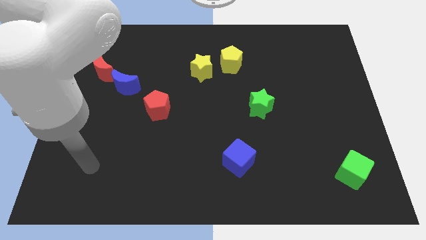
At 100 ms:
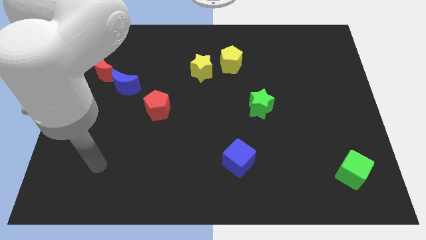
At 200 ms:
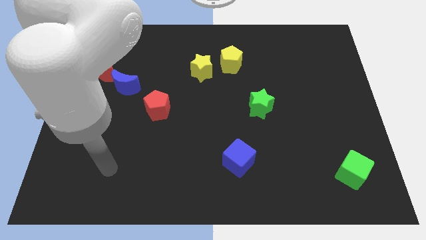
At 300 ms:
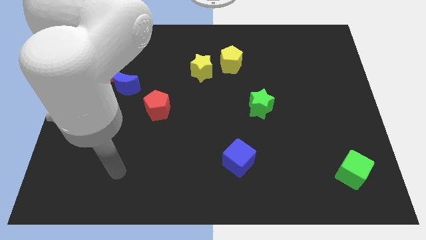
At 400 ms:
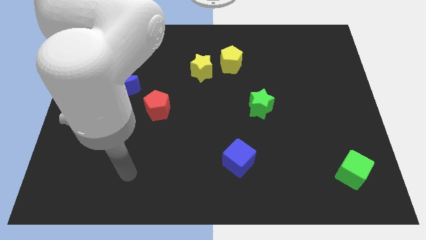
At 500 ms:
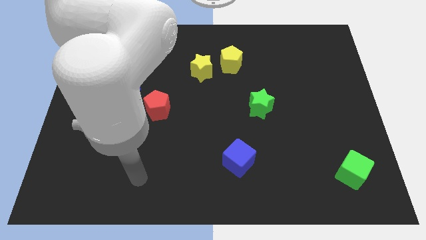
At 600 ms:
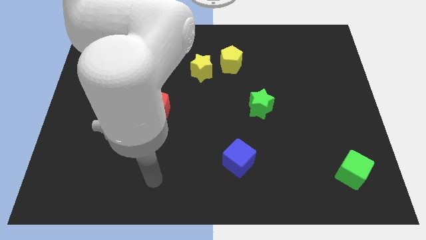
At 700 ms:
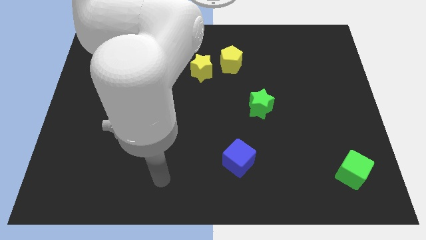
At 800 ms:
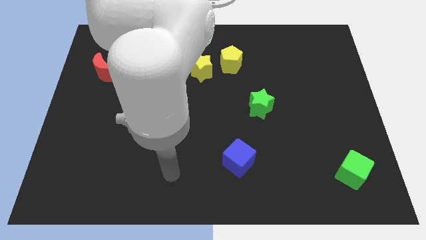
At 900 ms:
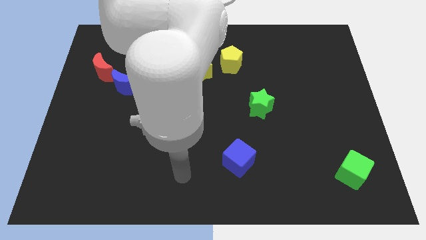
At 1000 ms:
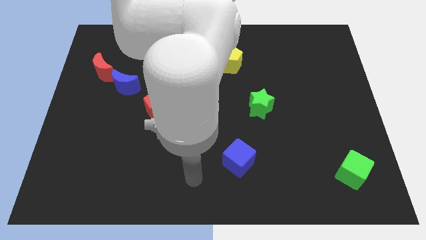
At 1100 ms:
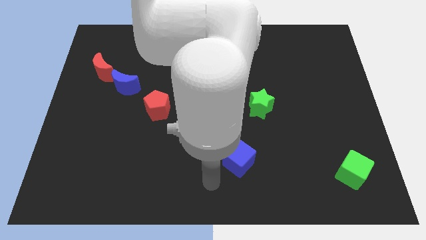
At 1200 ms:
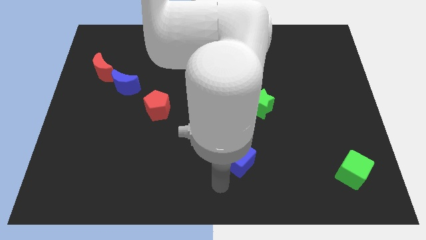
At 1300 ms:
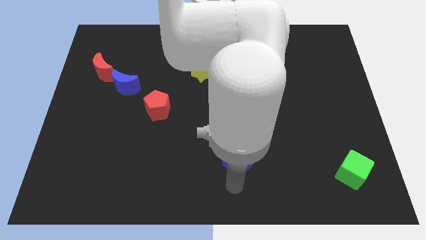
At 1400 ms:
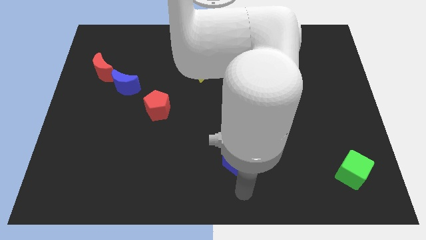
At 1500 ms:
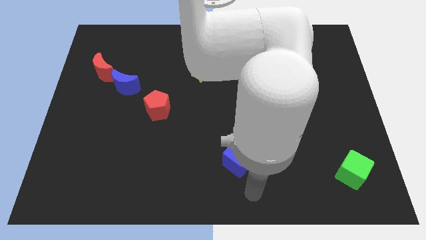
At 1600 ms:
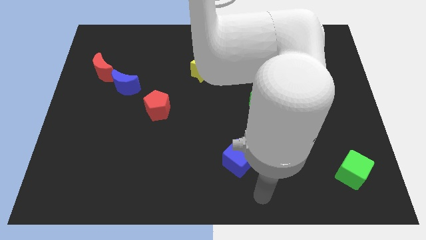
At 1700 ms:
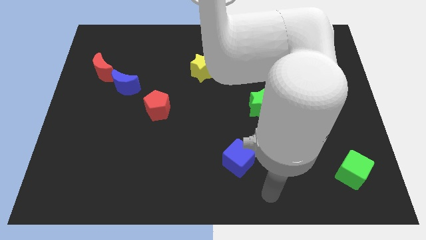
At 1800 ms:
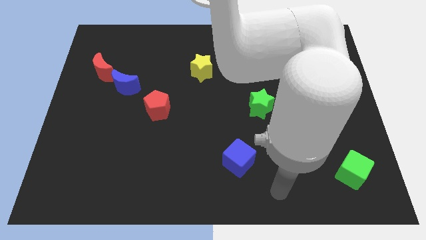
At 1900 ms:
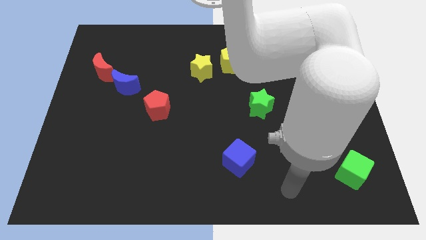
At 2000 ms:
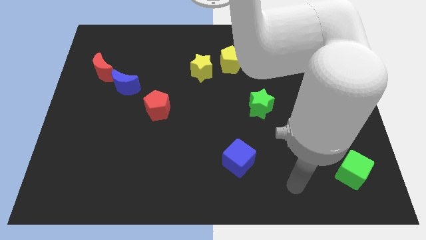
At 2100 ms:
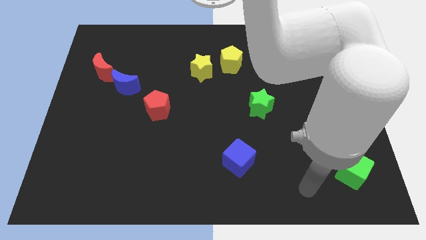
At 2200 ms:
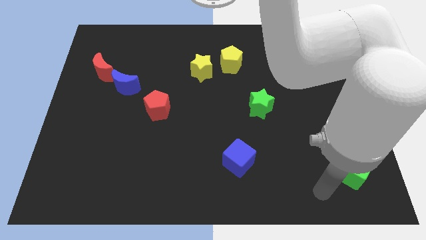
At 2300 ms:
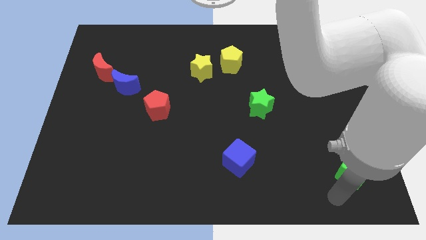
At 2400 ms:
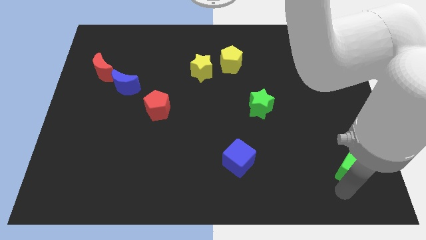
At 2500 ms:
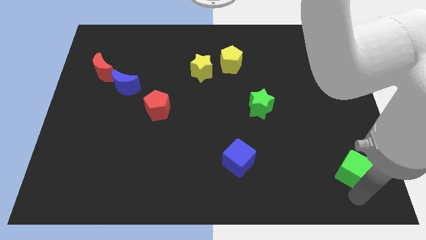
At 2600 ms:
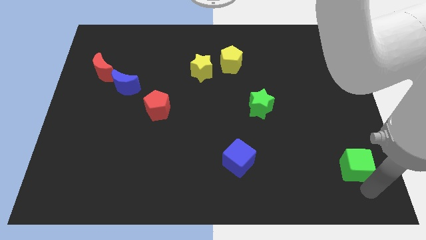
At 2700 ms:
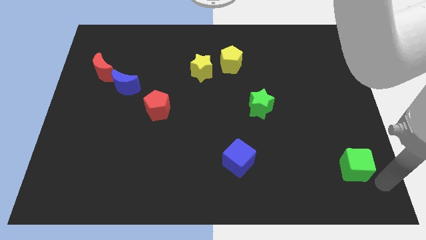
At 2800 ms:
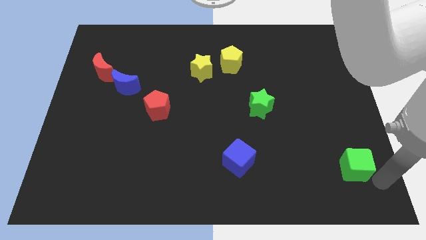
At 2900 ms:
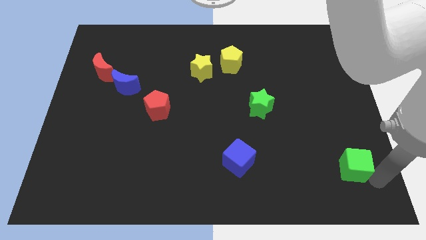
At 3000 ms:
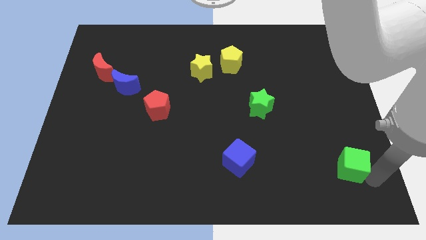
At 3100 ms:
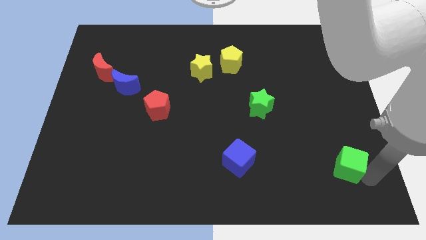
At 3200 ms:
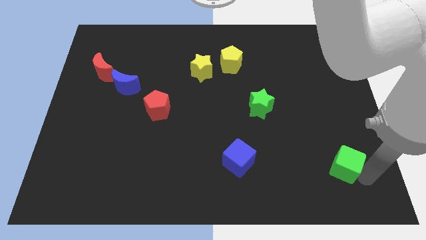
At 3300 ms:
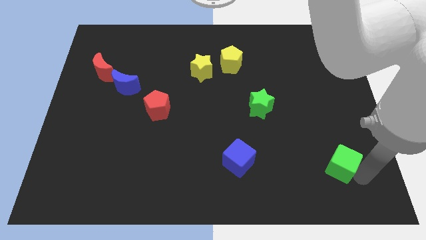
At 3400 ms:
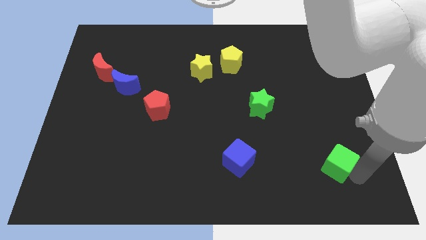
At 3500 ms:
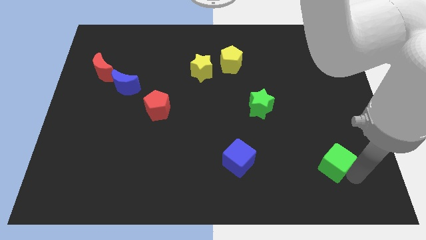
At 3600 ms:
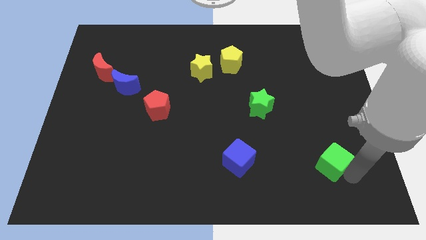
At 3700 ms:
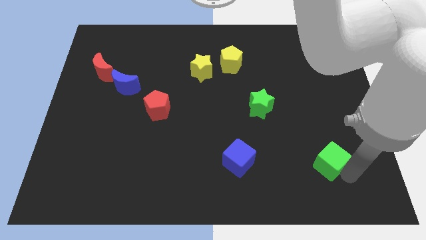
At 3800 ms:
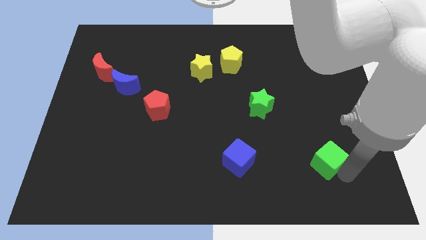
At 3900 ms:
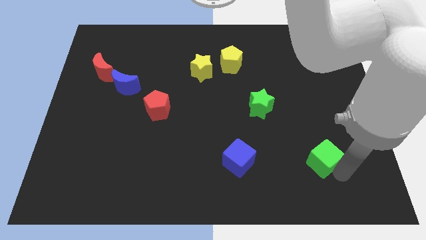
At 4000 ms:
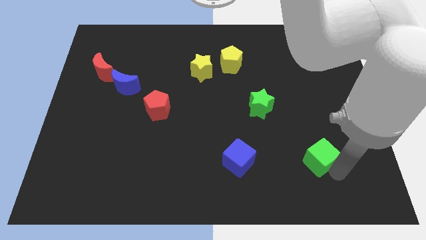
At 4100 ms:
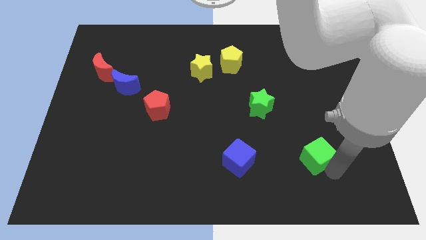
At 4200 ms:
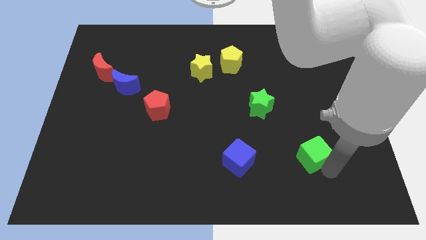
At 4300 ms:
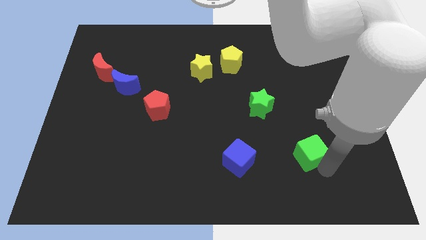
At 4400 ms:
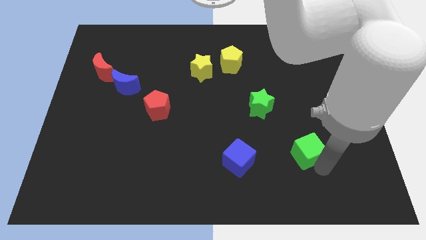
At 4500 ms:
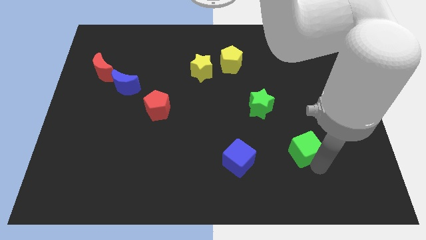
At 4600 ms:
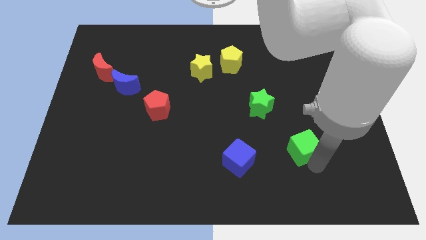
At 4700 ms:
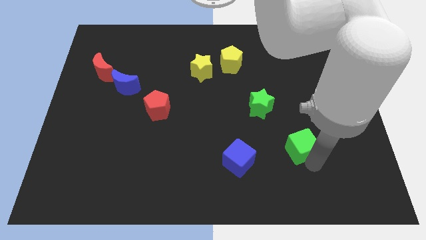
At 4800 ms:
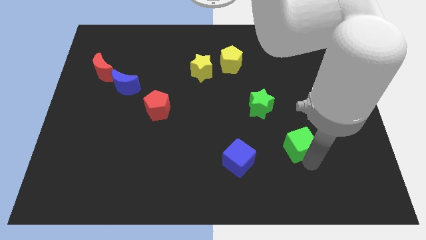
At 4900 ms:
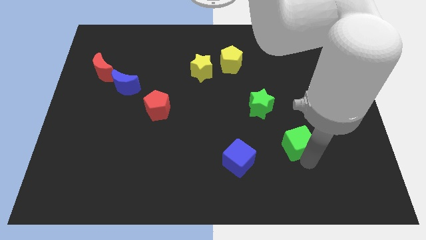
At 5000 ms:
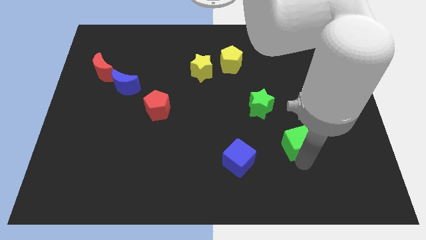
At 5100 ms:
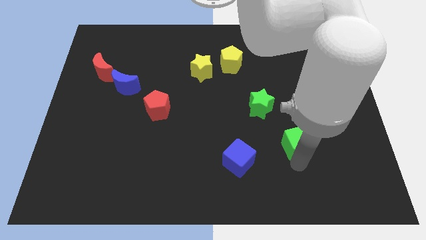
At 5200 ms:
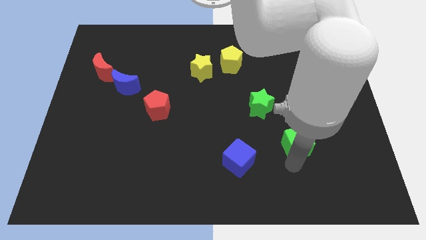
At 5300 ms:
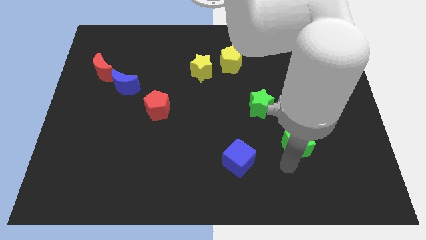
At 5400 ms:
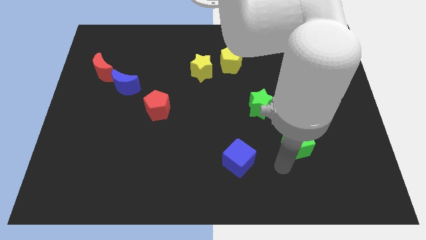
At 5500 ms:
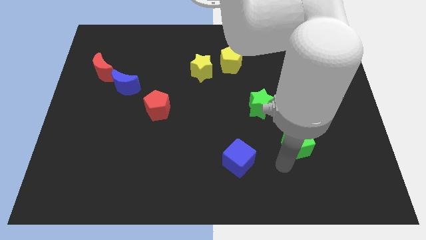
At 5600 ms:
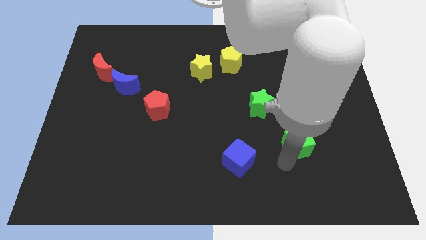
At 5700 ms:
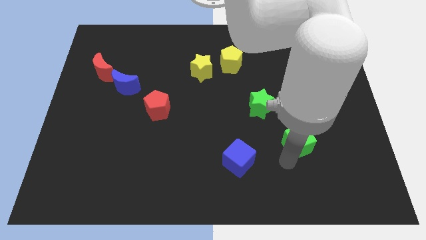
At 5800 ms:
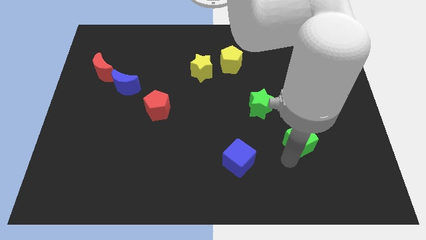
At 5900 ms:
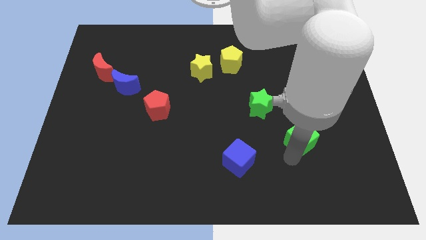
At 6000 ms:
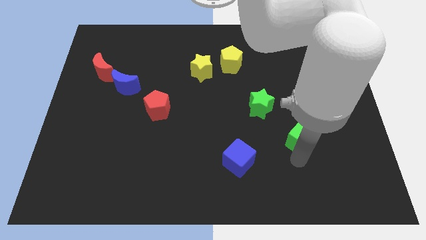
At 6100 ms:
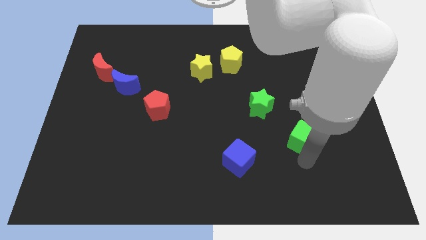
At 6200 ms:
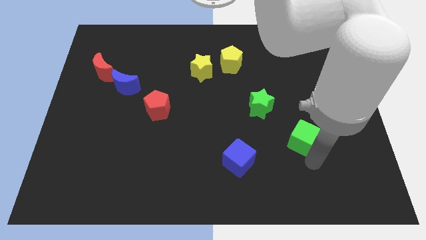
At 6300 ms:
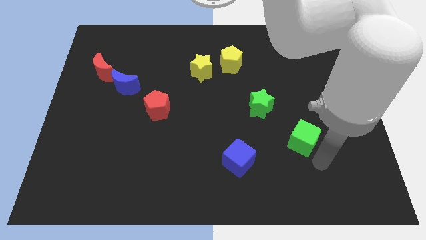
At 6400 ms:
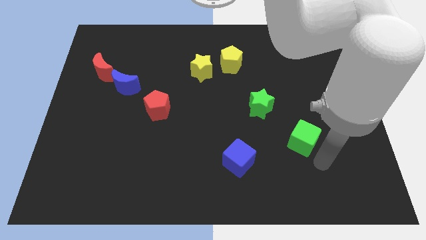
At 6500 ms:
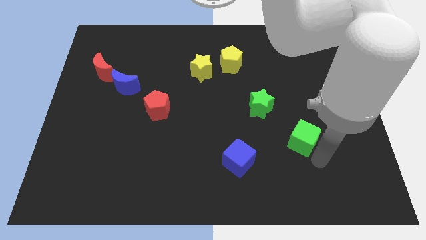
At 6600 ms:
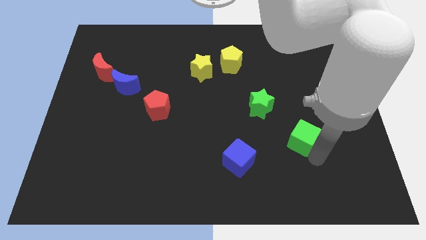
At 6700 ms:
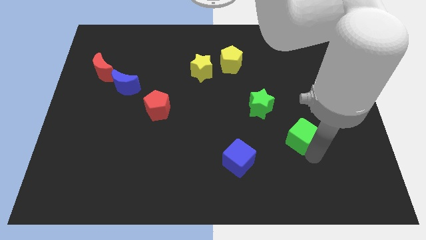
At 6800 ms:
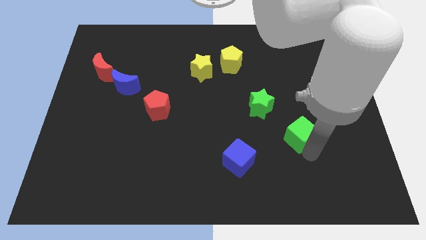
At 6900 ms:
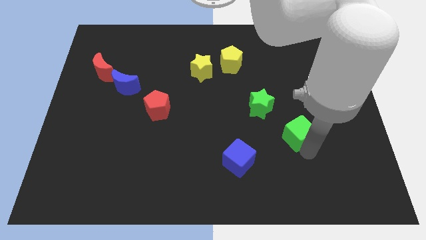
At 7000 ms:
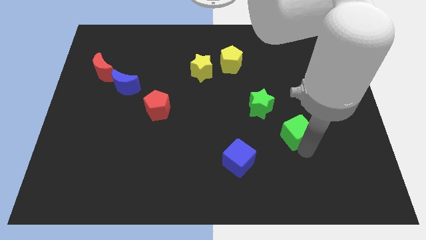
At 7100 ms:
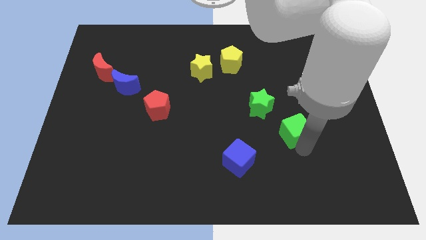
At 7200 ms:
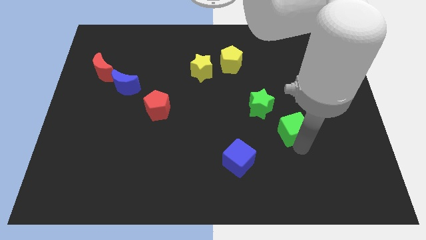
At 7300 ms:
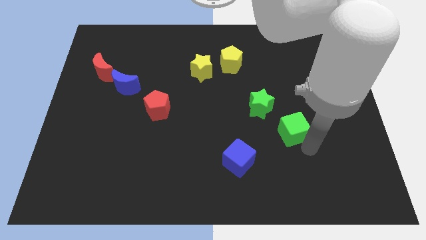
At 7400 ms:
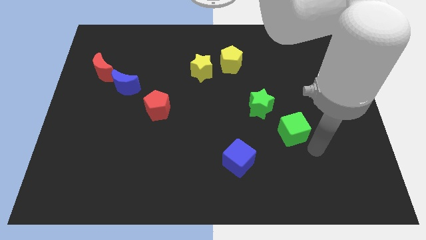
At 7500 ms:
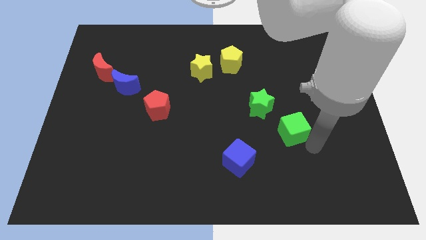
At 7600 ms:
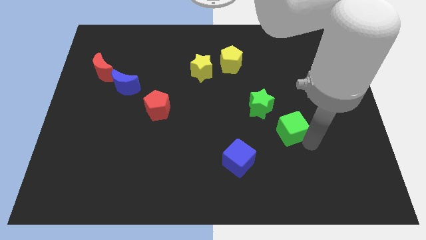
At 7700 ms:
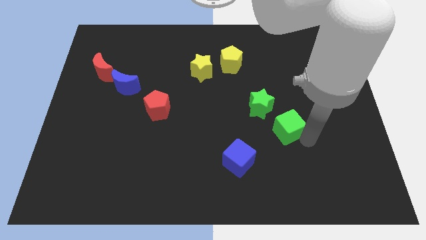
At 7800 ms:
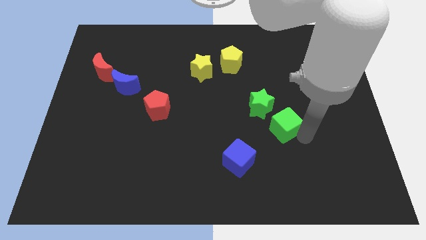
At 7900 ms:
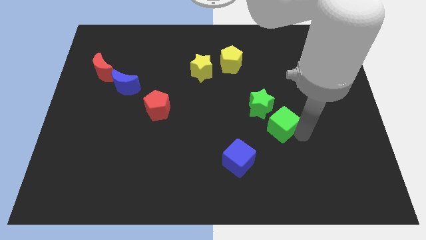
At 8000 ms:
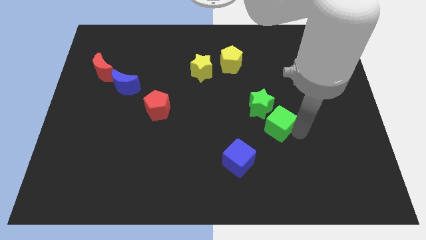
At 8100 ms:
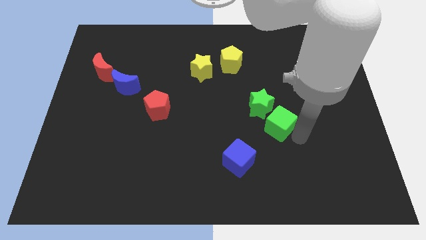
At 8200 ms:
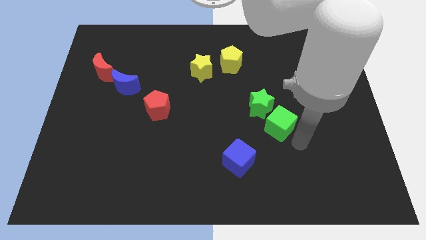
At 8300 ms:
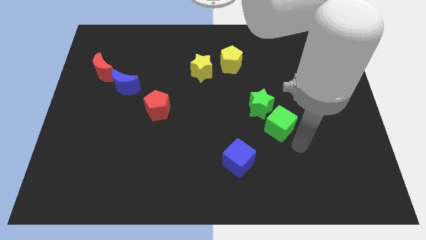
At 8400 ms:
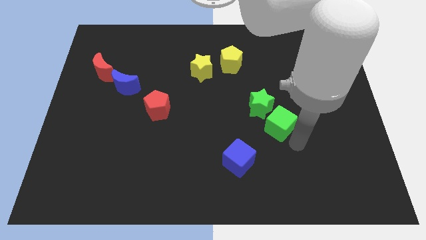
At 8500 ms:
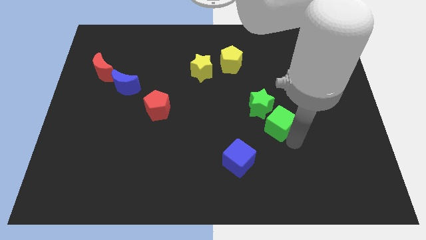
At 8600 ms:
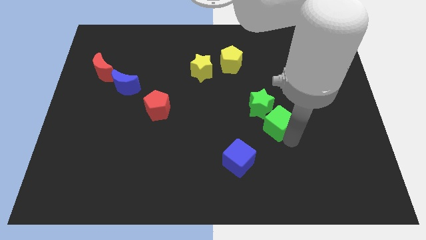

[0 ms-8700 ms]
put the green cube towards the green star
